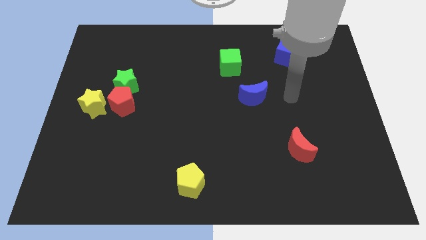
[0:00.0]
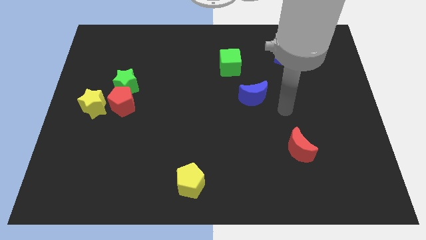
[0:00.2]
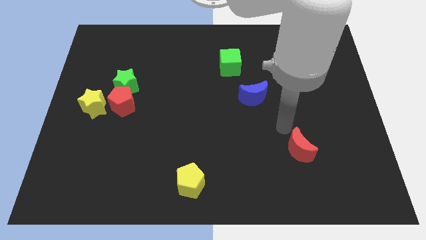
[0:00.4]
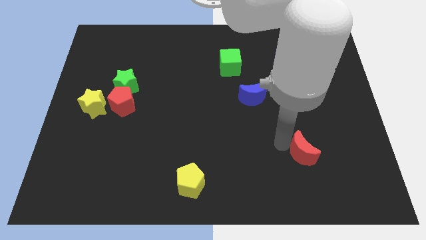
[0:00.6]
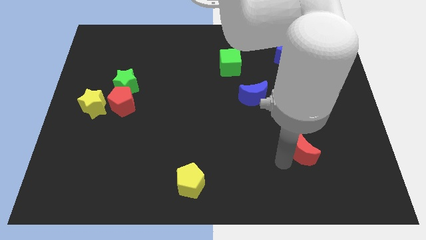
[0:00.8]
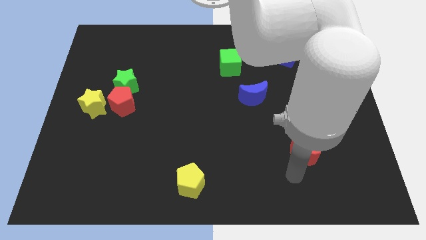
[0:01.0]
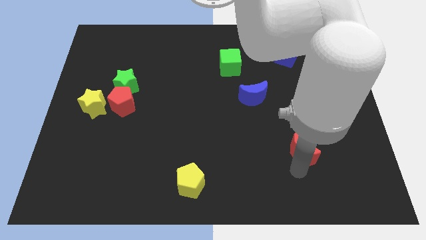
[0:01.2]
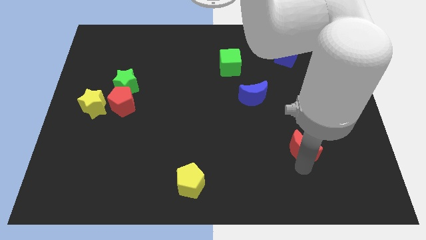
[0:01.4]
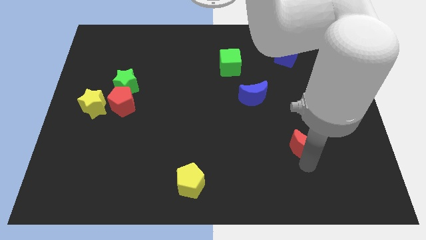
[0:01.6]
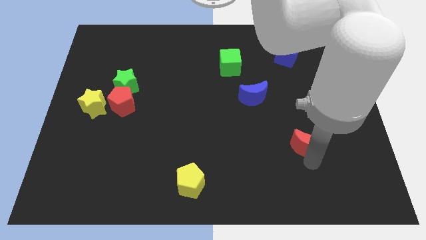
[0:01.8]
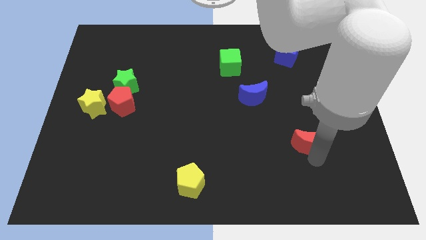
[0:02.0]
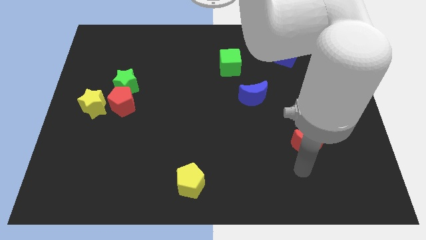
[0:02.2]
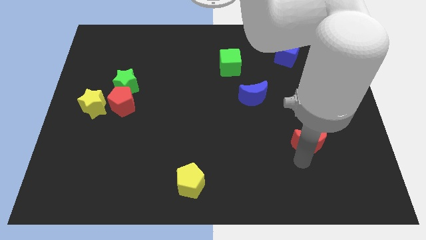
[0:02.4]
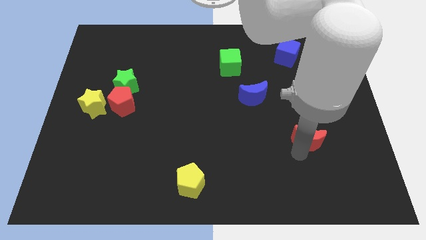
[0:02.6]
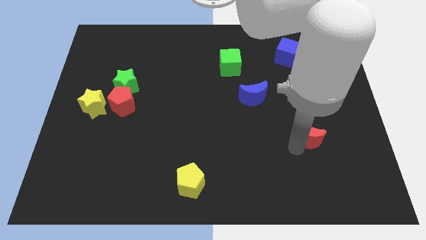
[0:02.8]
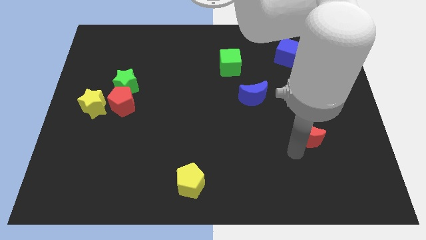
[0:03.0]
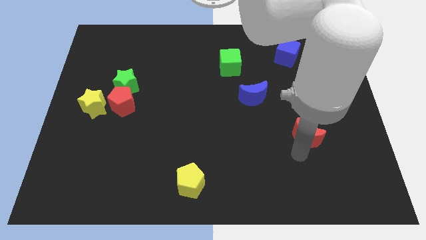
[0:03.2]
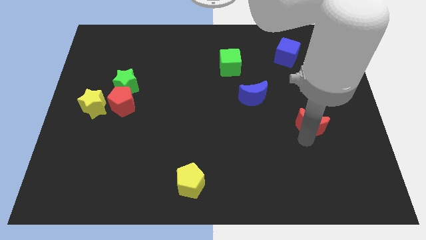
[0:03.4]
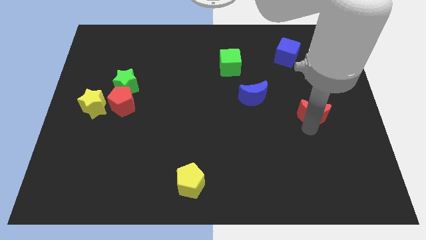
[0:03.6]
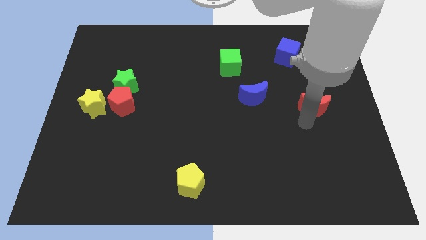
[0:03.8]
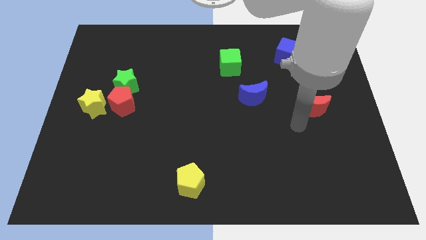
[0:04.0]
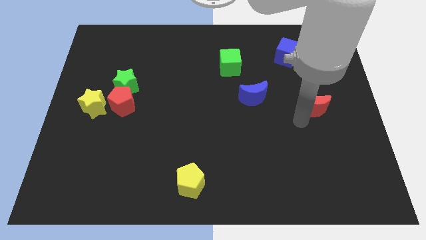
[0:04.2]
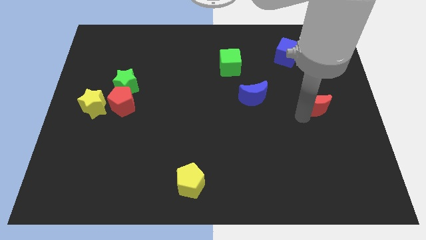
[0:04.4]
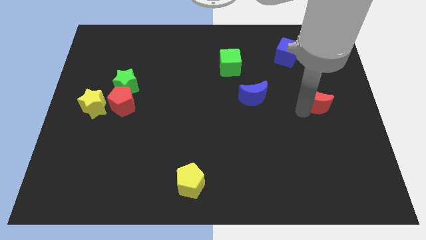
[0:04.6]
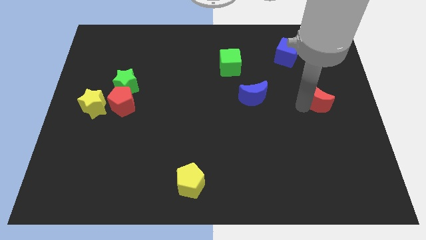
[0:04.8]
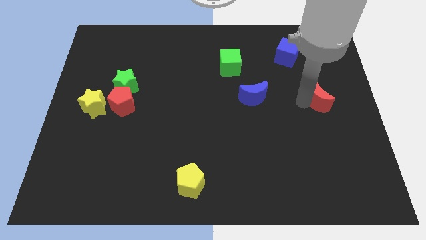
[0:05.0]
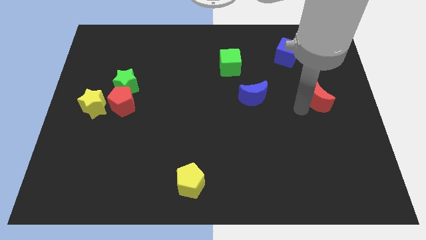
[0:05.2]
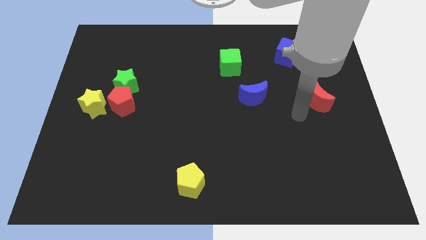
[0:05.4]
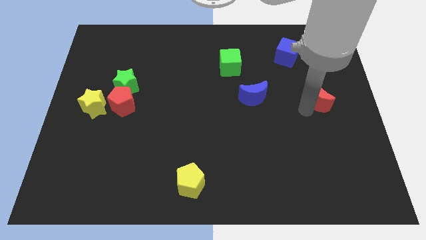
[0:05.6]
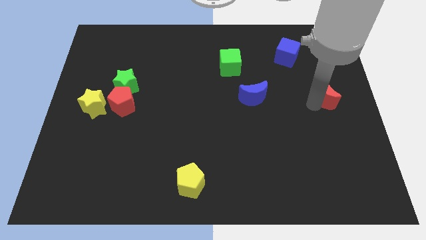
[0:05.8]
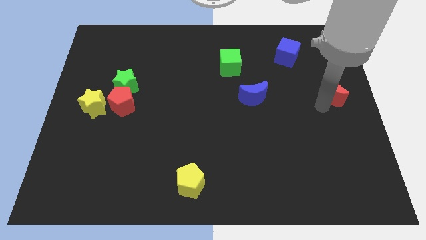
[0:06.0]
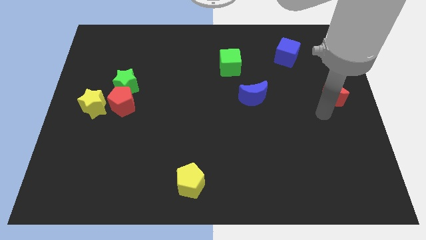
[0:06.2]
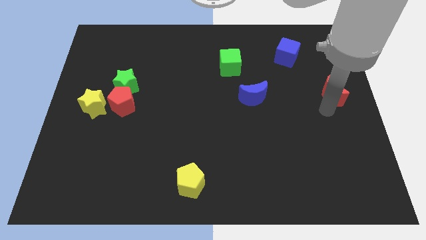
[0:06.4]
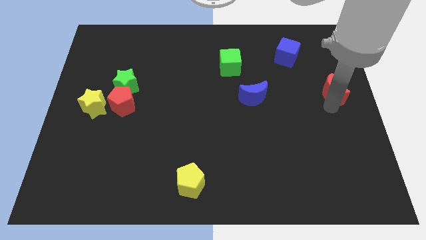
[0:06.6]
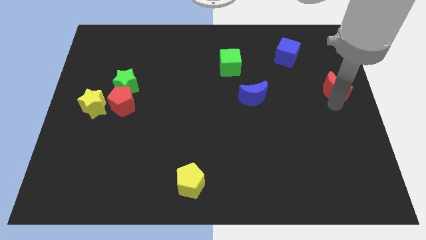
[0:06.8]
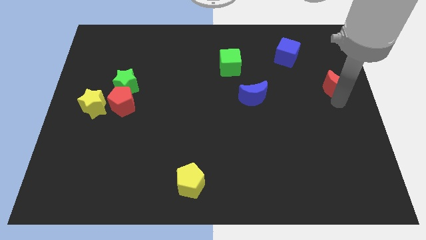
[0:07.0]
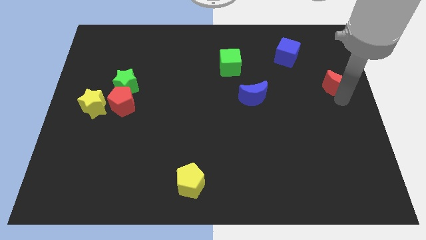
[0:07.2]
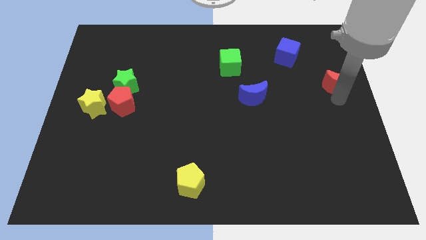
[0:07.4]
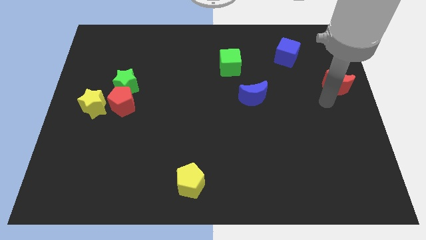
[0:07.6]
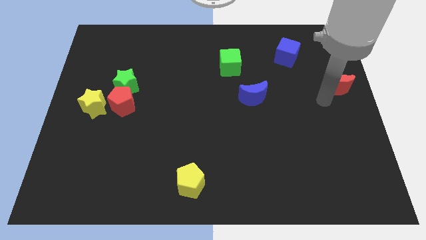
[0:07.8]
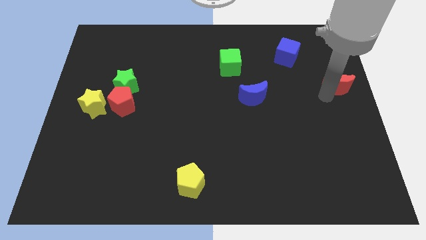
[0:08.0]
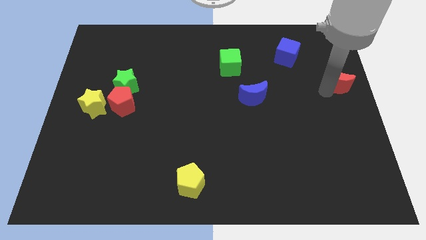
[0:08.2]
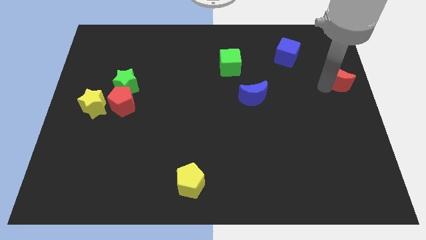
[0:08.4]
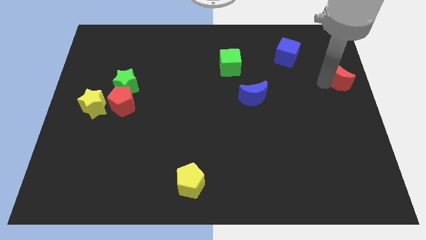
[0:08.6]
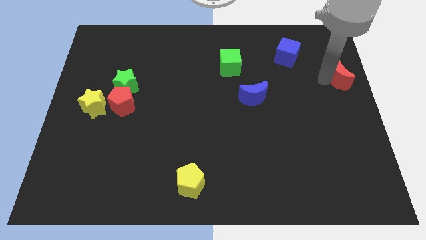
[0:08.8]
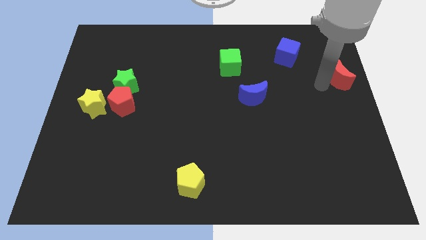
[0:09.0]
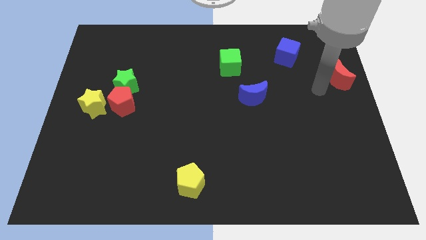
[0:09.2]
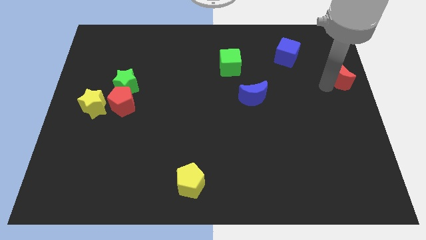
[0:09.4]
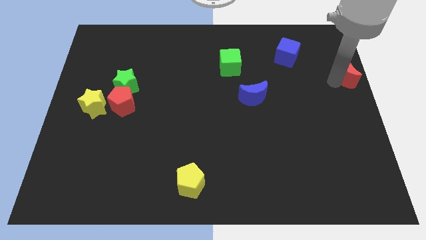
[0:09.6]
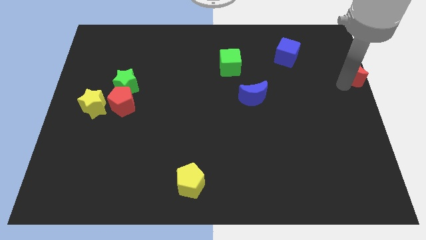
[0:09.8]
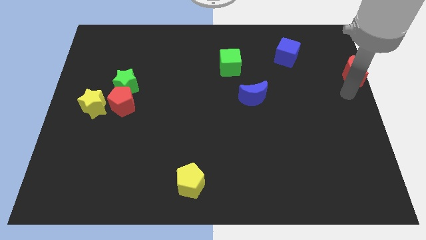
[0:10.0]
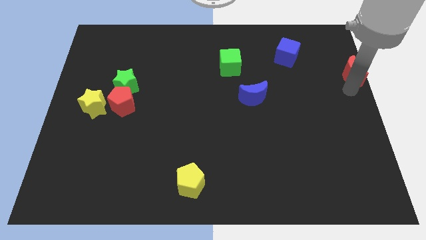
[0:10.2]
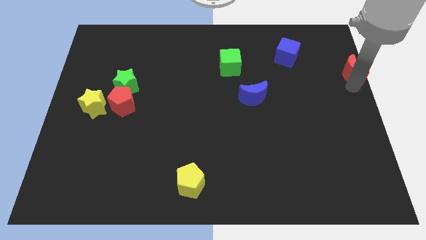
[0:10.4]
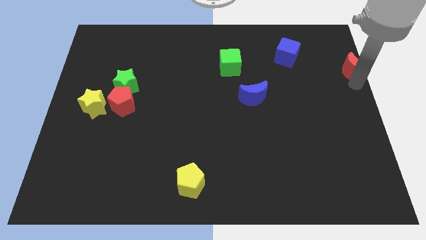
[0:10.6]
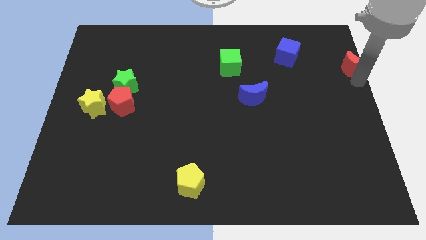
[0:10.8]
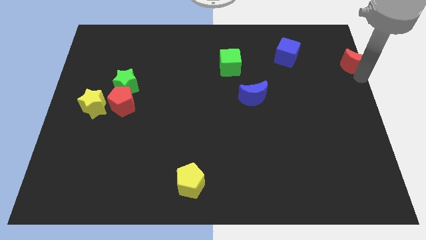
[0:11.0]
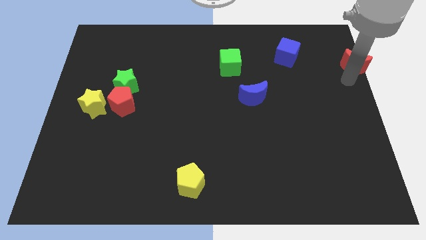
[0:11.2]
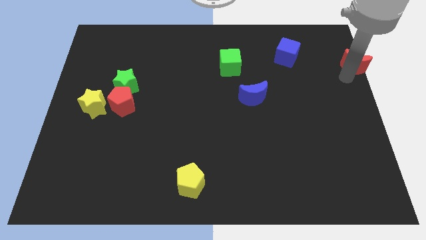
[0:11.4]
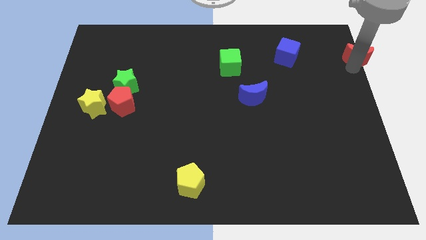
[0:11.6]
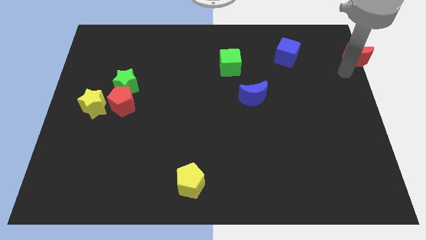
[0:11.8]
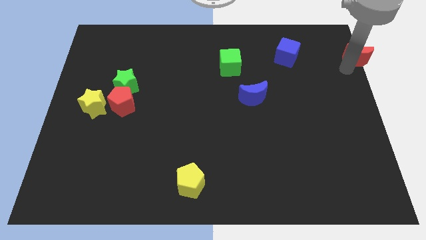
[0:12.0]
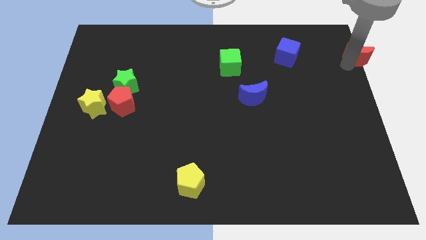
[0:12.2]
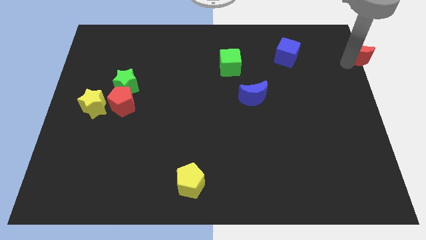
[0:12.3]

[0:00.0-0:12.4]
slide the red moon to the top right
